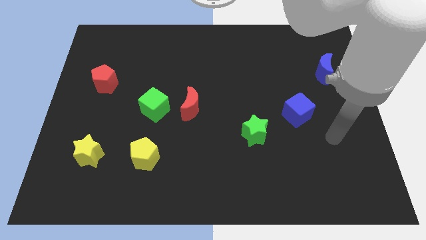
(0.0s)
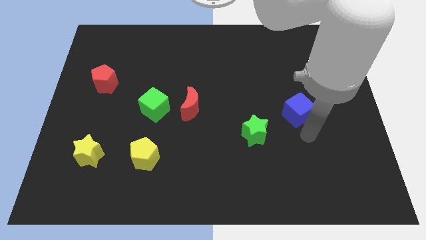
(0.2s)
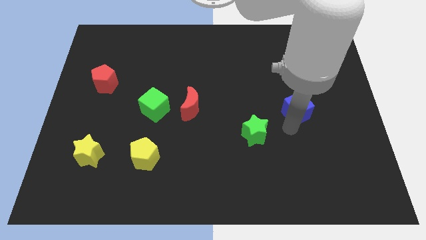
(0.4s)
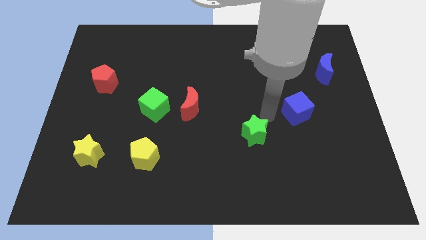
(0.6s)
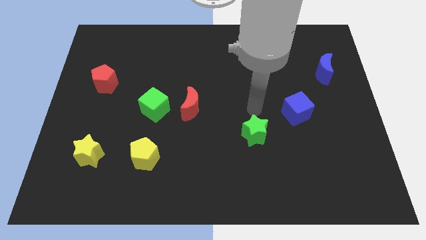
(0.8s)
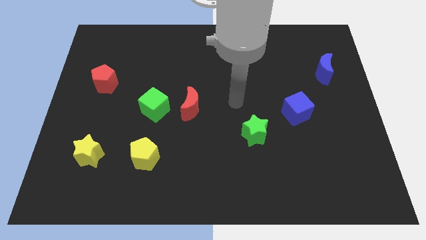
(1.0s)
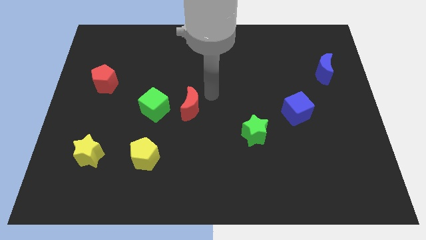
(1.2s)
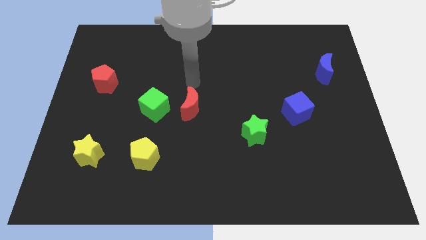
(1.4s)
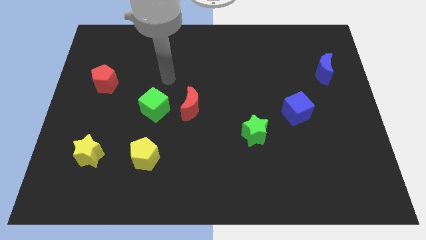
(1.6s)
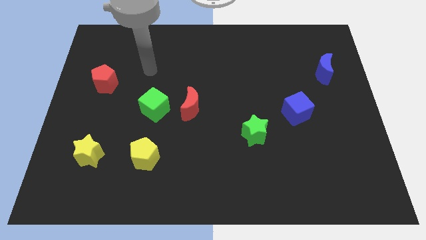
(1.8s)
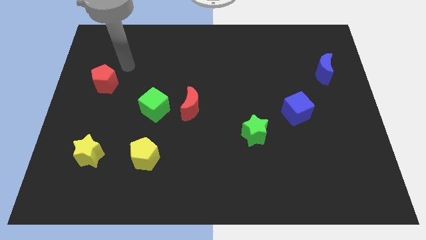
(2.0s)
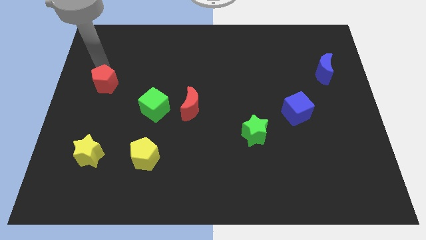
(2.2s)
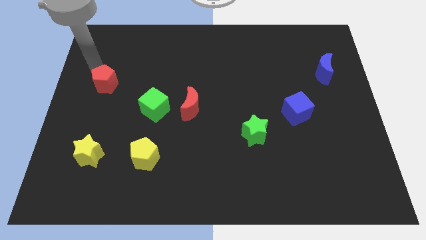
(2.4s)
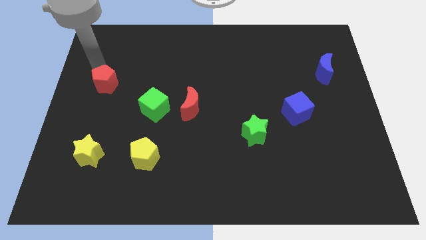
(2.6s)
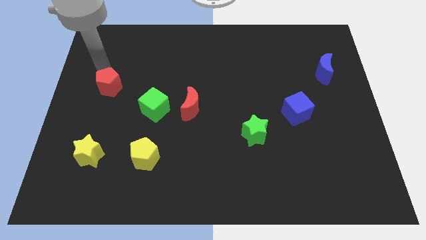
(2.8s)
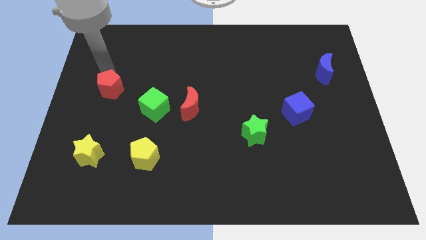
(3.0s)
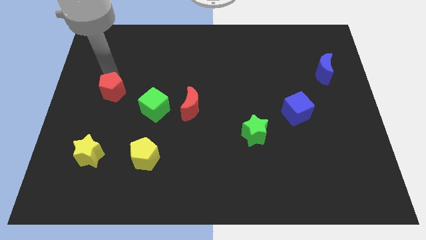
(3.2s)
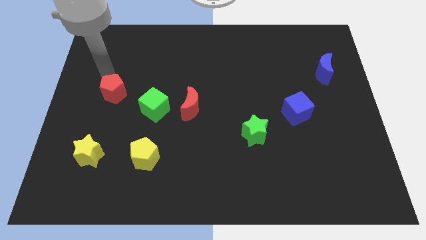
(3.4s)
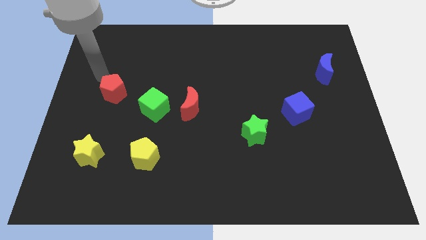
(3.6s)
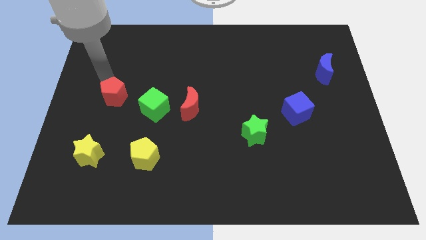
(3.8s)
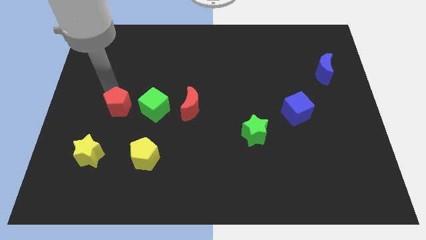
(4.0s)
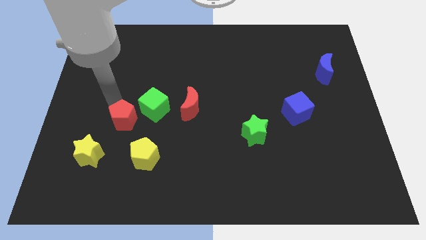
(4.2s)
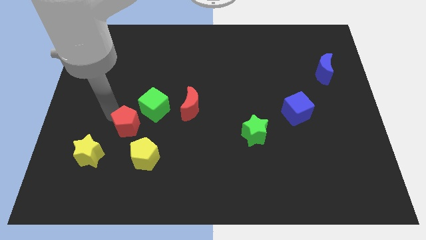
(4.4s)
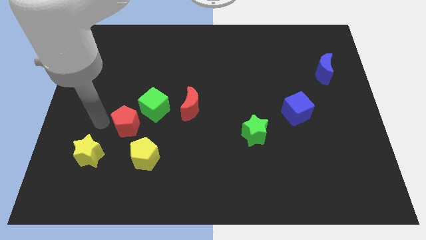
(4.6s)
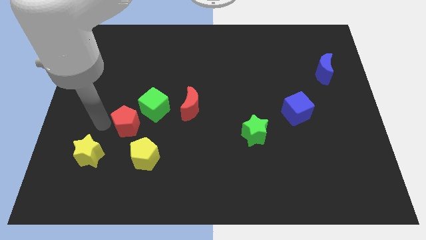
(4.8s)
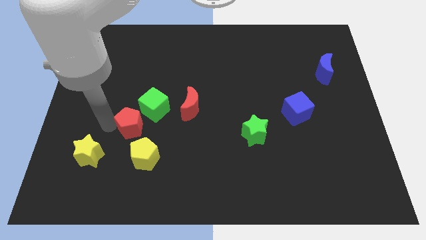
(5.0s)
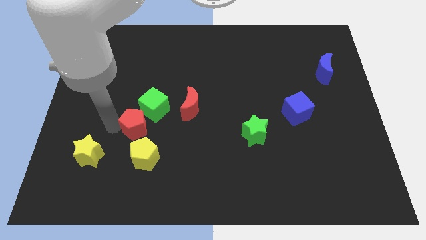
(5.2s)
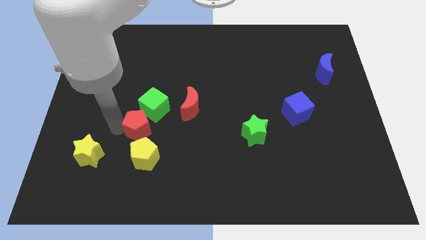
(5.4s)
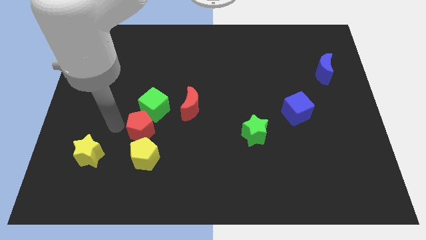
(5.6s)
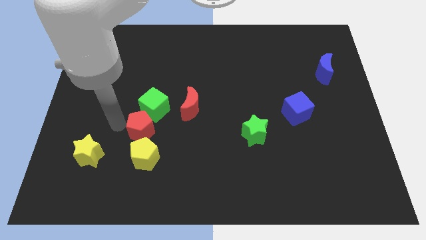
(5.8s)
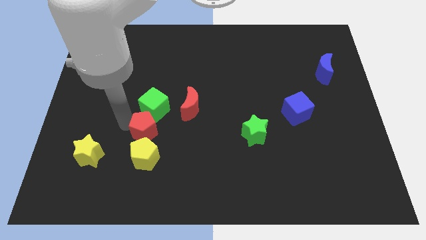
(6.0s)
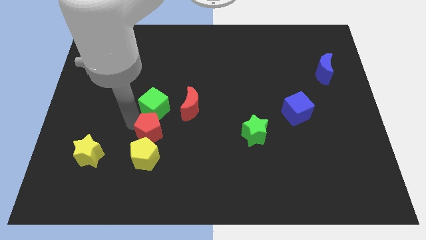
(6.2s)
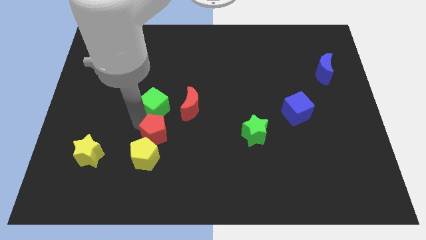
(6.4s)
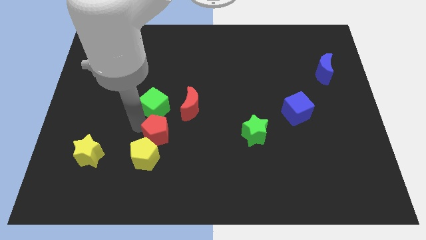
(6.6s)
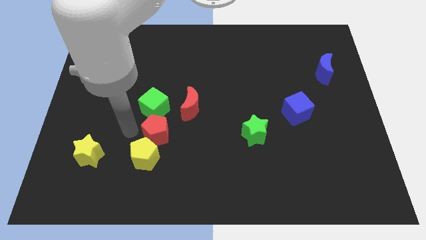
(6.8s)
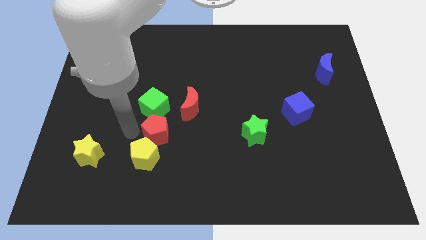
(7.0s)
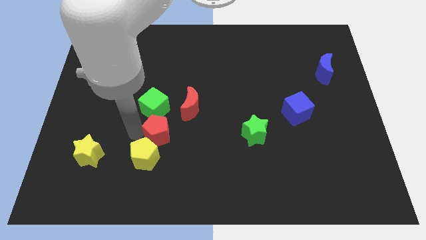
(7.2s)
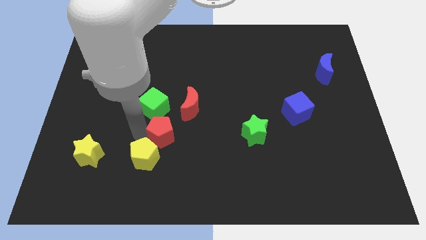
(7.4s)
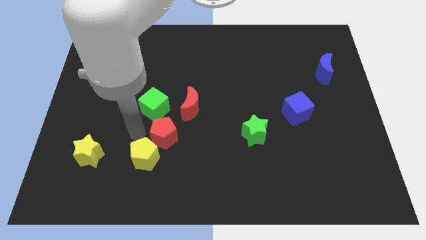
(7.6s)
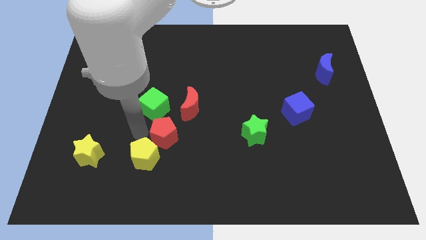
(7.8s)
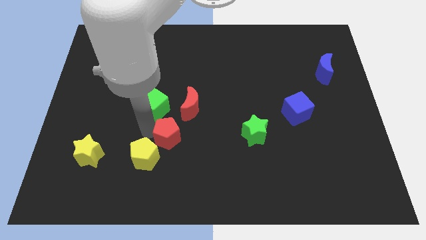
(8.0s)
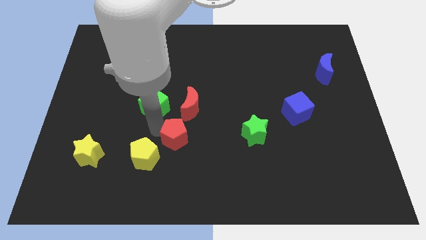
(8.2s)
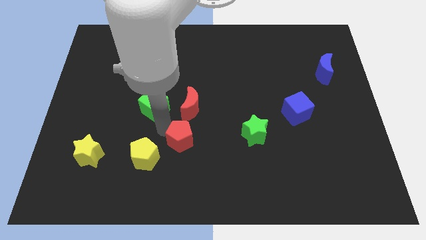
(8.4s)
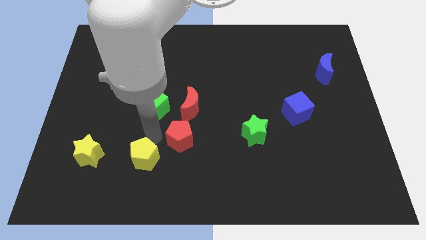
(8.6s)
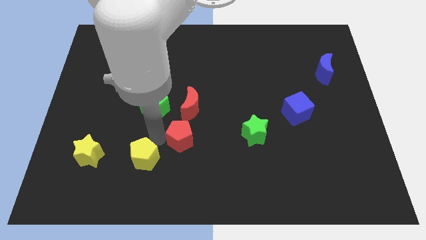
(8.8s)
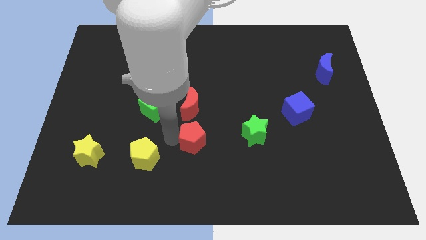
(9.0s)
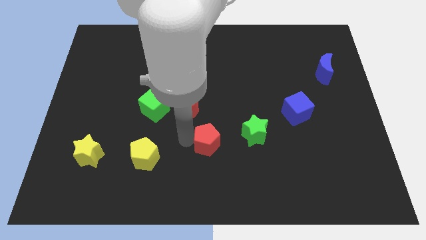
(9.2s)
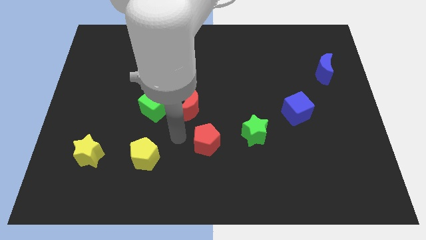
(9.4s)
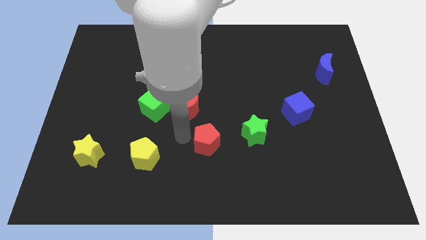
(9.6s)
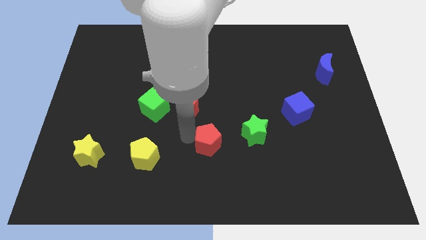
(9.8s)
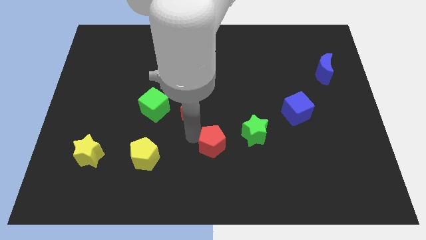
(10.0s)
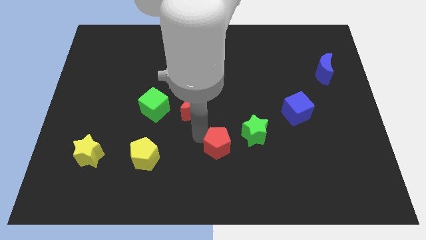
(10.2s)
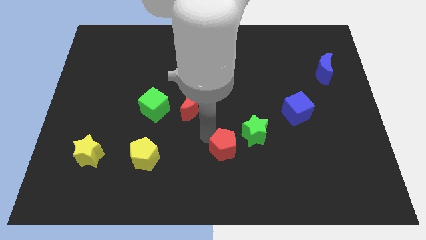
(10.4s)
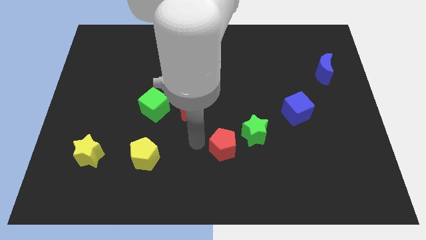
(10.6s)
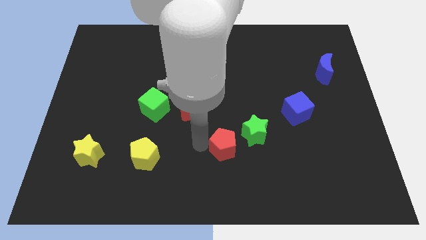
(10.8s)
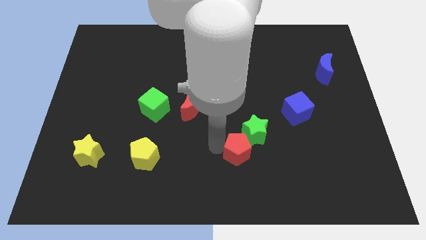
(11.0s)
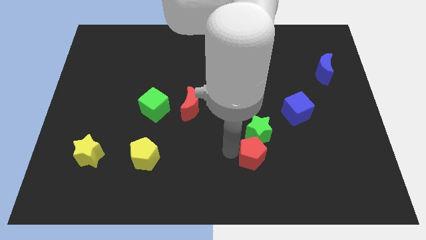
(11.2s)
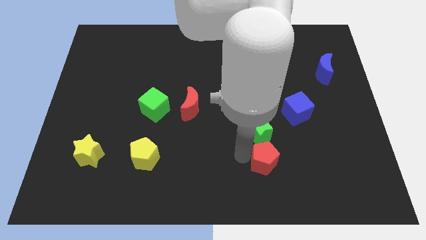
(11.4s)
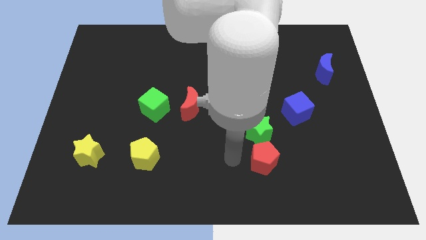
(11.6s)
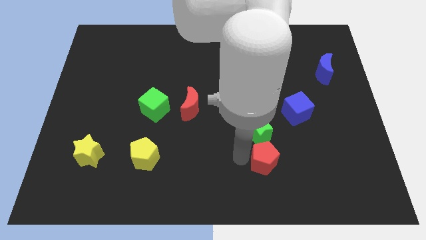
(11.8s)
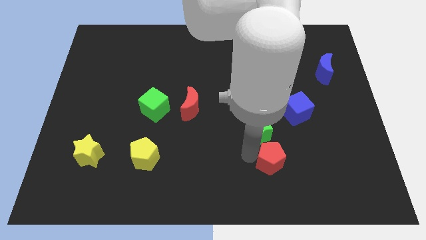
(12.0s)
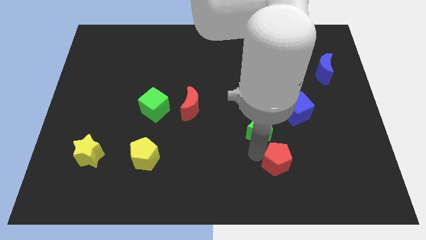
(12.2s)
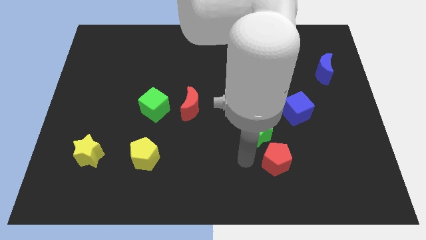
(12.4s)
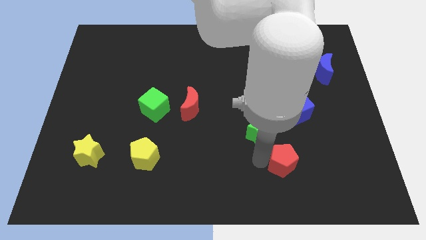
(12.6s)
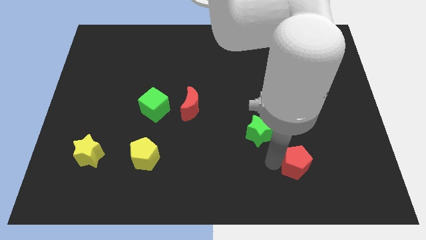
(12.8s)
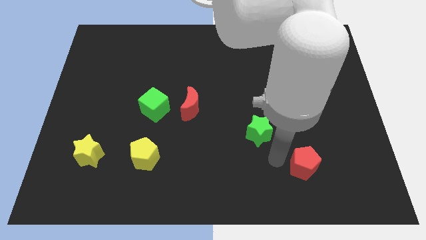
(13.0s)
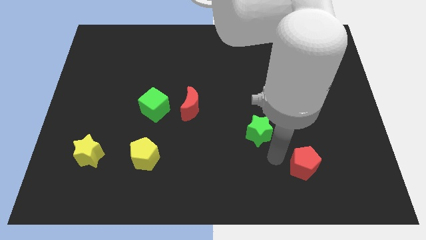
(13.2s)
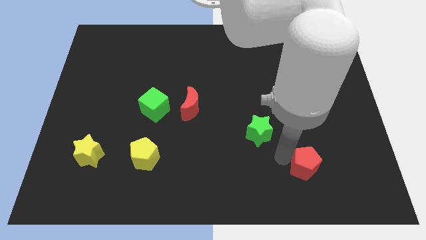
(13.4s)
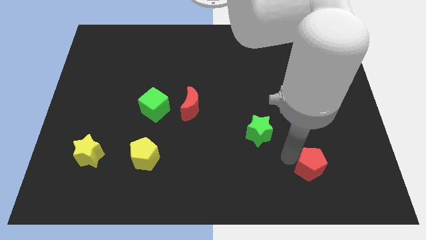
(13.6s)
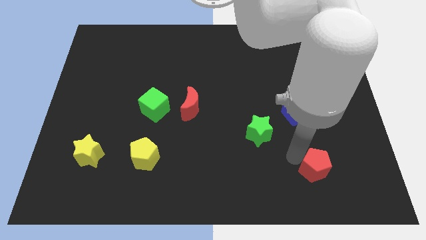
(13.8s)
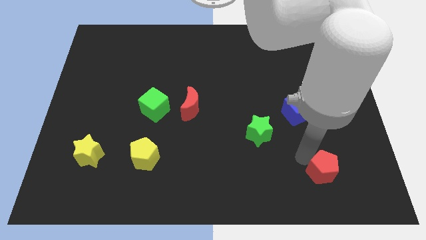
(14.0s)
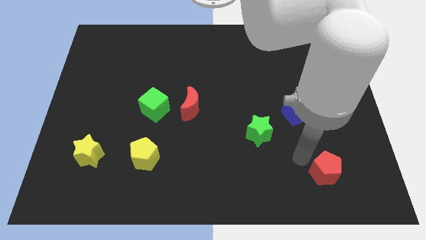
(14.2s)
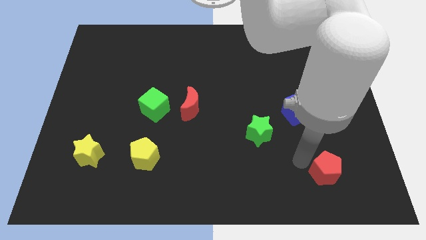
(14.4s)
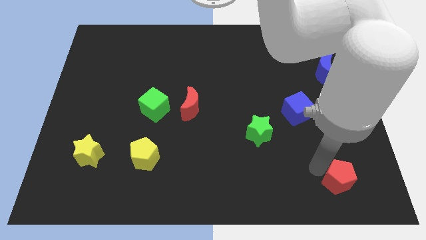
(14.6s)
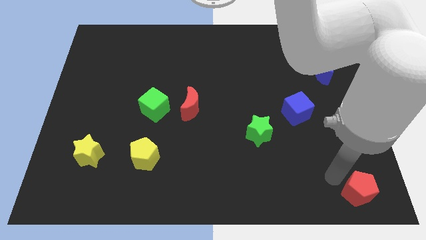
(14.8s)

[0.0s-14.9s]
push the red pentagon to the lower right corner
